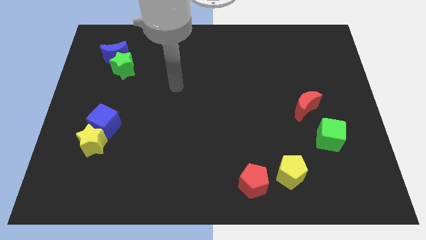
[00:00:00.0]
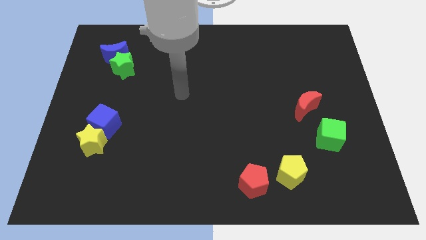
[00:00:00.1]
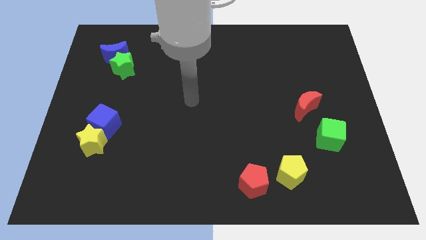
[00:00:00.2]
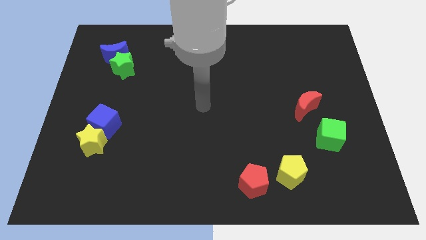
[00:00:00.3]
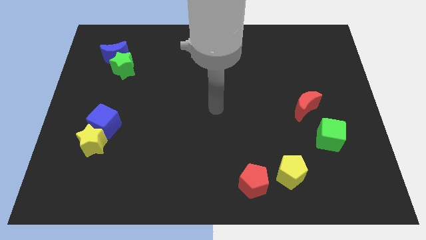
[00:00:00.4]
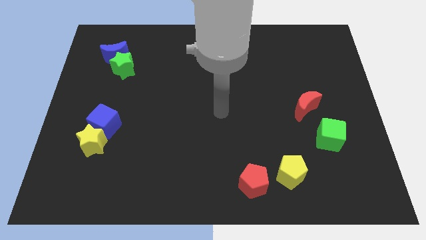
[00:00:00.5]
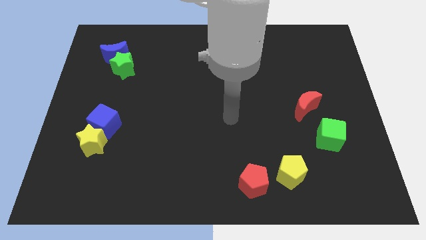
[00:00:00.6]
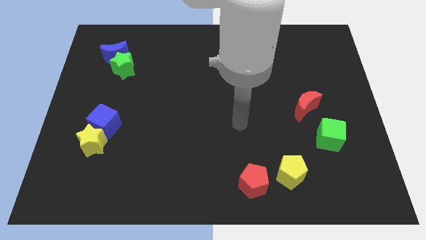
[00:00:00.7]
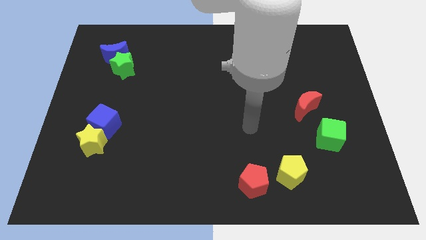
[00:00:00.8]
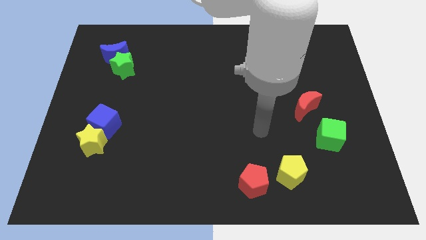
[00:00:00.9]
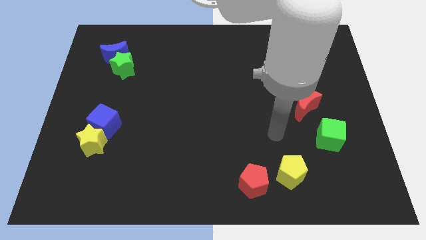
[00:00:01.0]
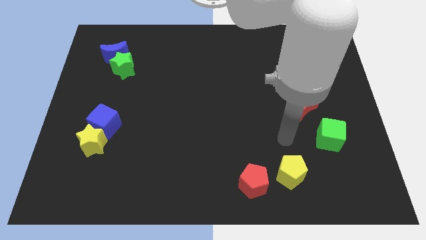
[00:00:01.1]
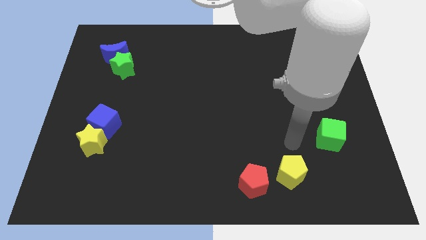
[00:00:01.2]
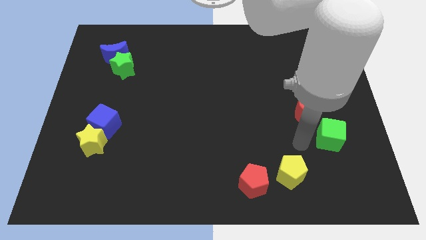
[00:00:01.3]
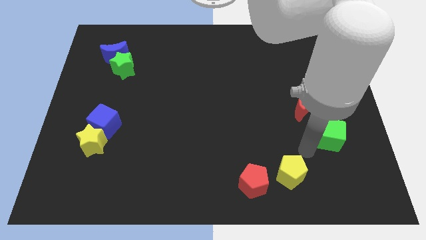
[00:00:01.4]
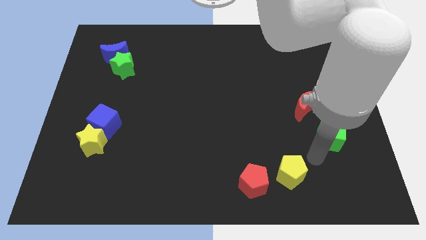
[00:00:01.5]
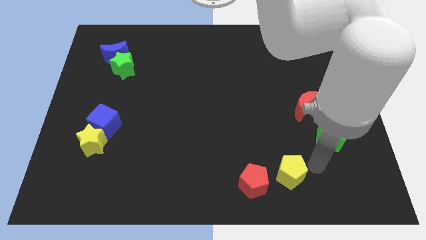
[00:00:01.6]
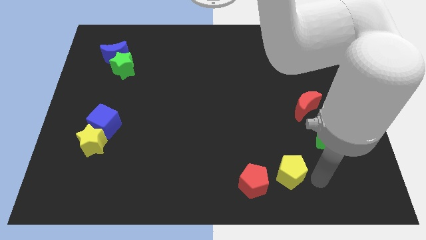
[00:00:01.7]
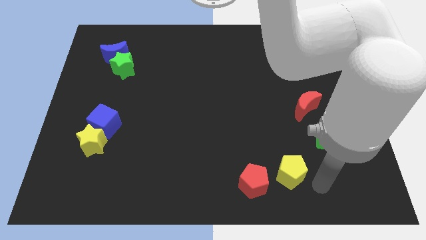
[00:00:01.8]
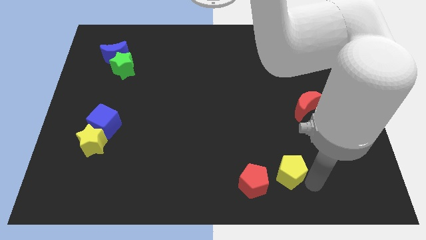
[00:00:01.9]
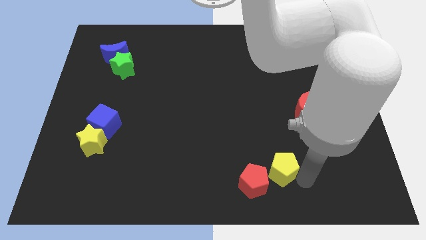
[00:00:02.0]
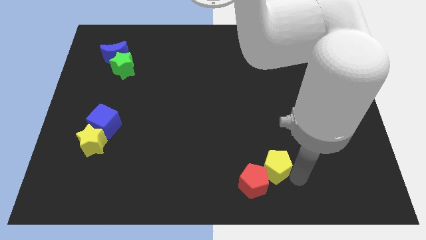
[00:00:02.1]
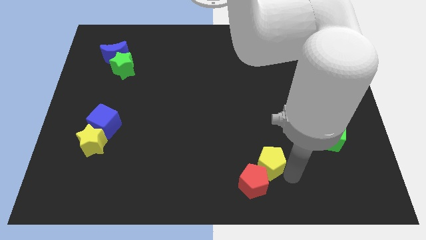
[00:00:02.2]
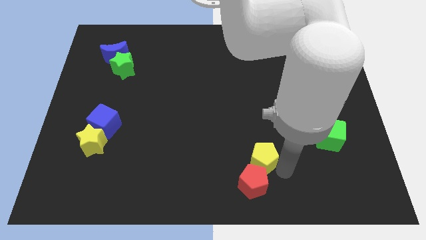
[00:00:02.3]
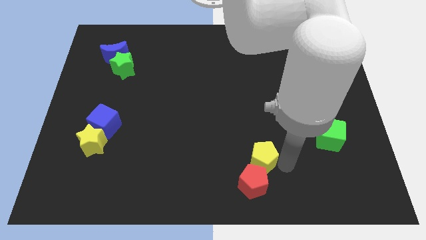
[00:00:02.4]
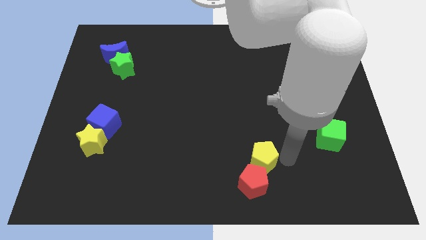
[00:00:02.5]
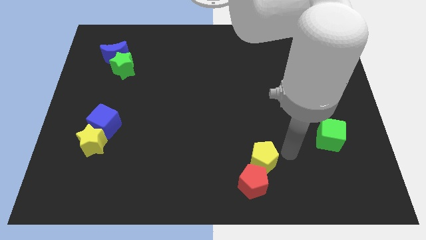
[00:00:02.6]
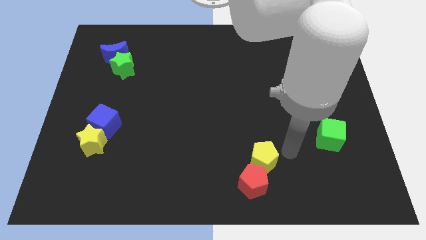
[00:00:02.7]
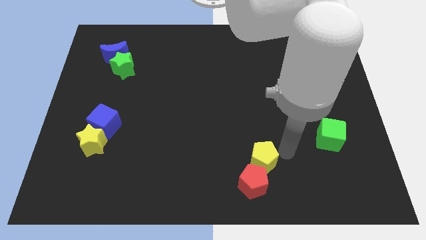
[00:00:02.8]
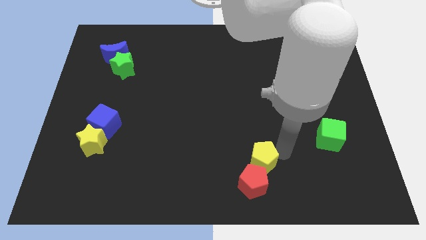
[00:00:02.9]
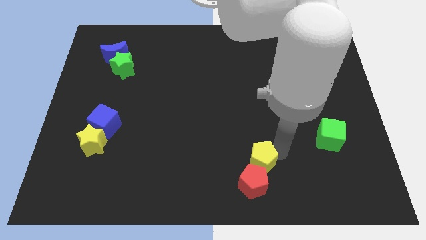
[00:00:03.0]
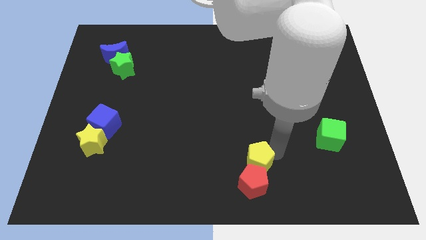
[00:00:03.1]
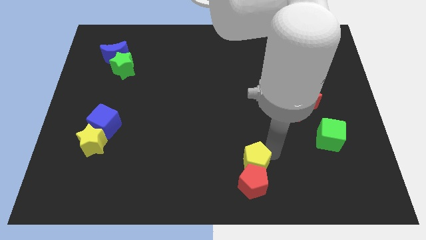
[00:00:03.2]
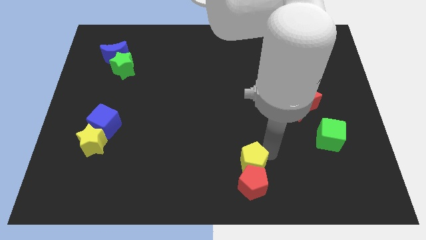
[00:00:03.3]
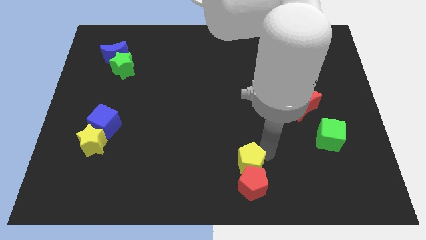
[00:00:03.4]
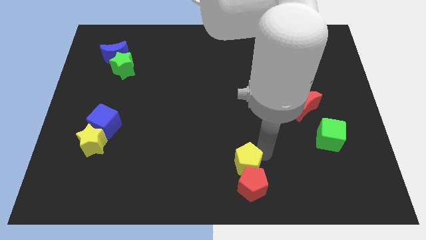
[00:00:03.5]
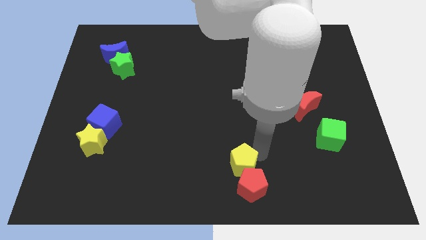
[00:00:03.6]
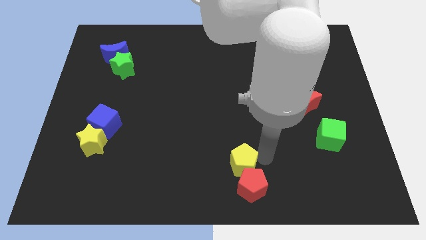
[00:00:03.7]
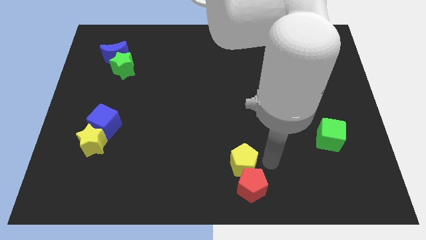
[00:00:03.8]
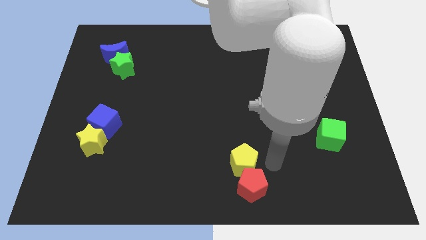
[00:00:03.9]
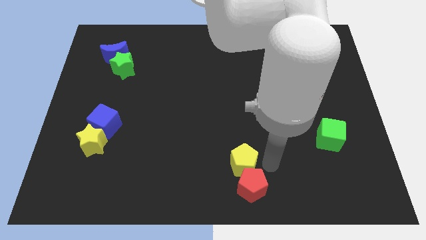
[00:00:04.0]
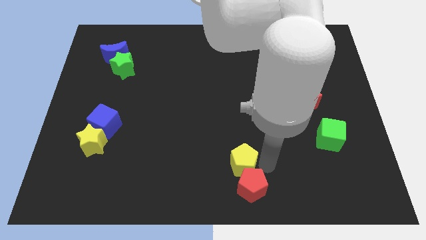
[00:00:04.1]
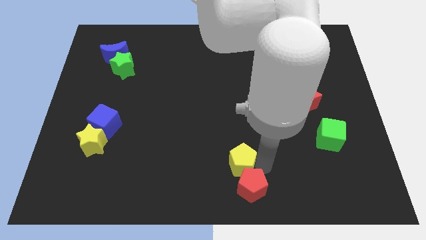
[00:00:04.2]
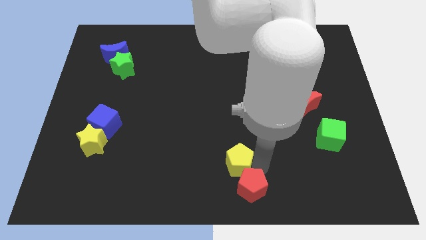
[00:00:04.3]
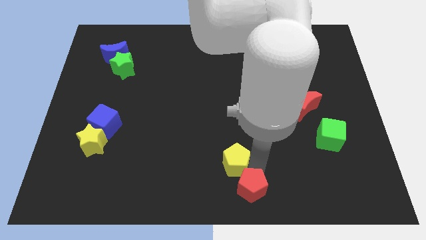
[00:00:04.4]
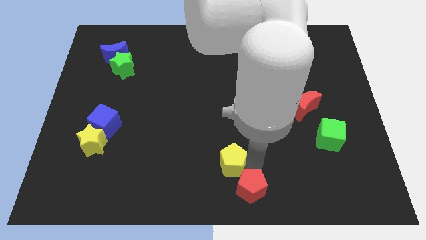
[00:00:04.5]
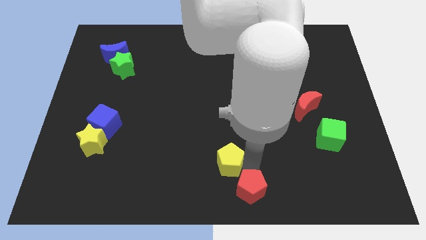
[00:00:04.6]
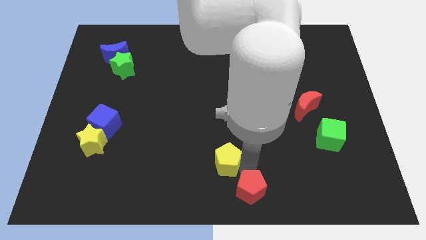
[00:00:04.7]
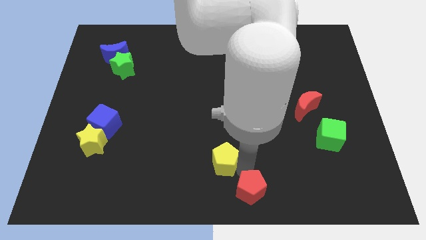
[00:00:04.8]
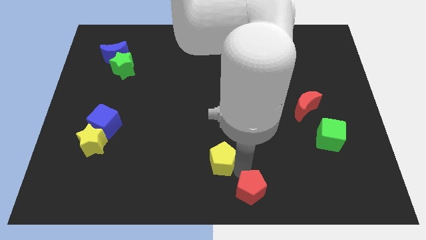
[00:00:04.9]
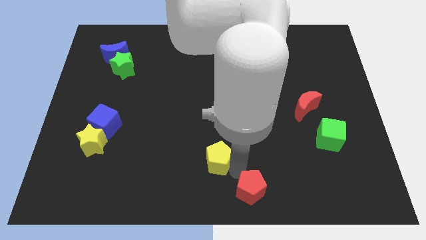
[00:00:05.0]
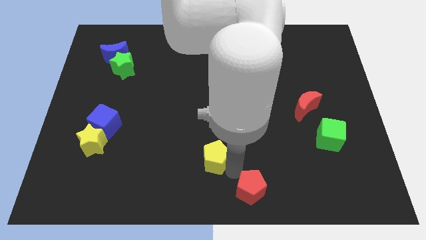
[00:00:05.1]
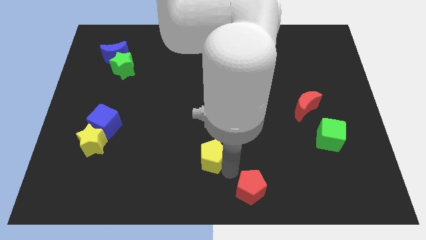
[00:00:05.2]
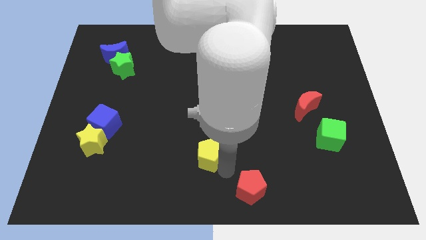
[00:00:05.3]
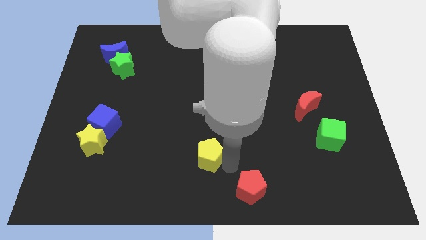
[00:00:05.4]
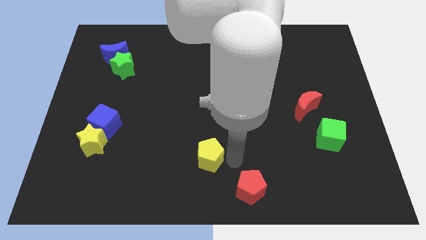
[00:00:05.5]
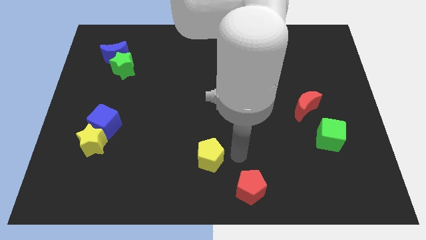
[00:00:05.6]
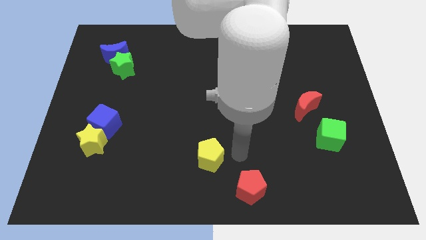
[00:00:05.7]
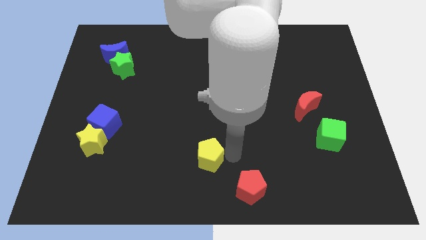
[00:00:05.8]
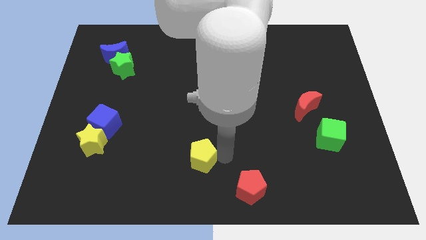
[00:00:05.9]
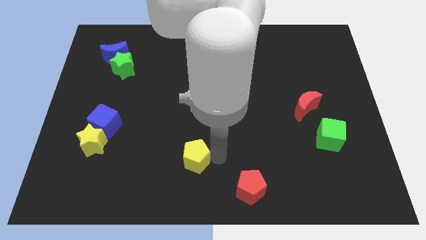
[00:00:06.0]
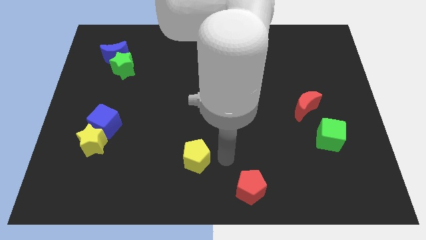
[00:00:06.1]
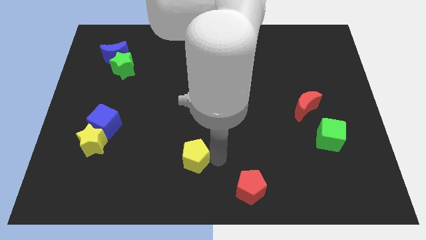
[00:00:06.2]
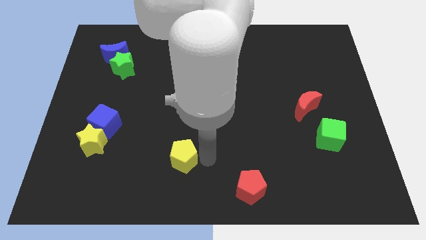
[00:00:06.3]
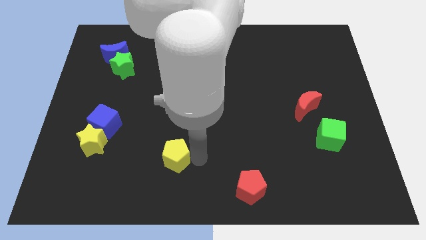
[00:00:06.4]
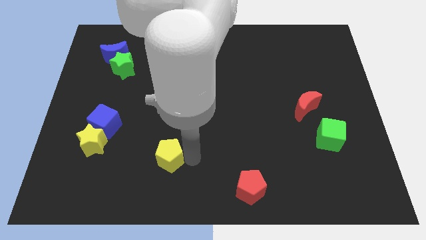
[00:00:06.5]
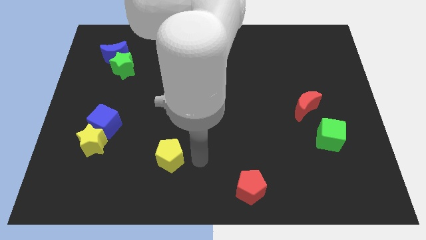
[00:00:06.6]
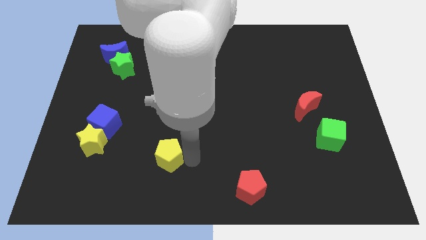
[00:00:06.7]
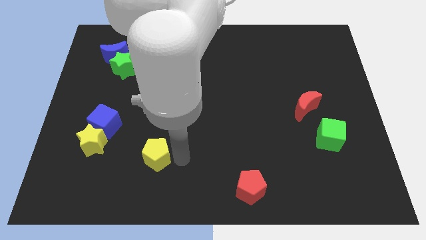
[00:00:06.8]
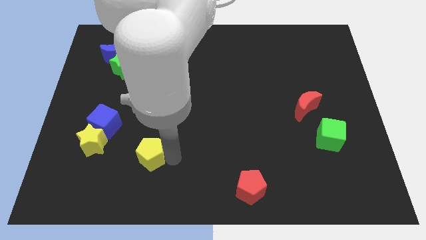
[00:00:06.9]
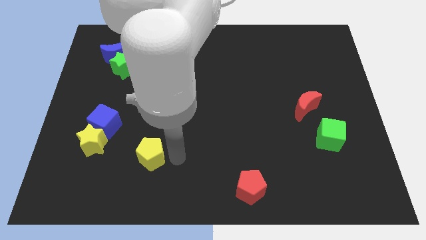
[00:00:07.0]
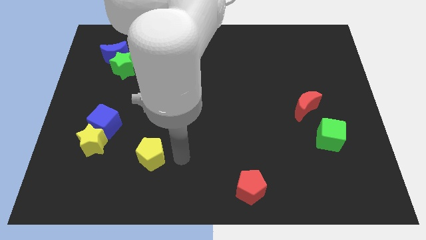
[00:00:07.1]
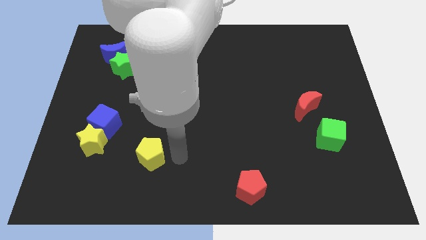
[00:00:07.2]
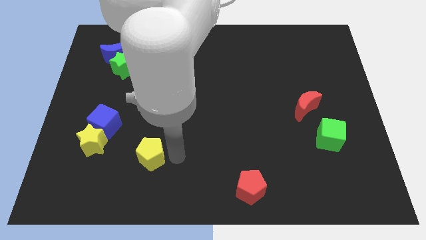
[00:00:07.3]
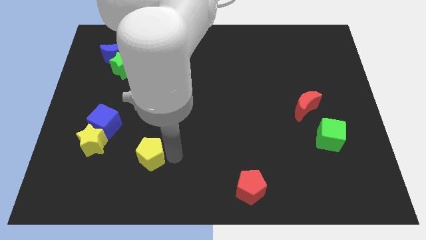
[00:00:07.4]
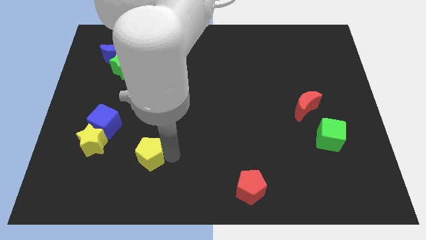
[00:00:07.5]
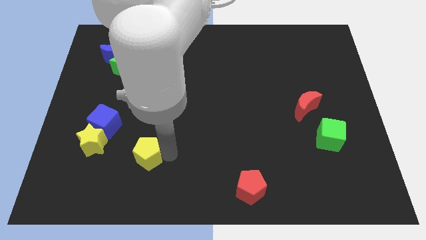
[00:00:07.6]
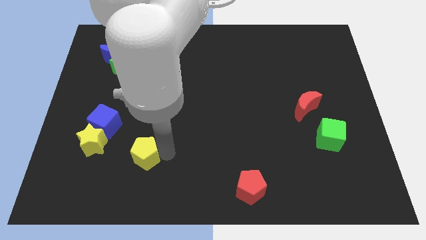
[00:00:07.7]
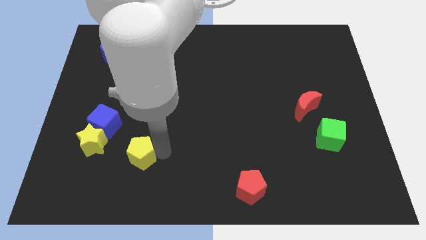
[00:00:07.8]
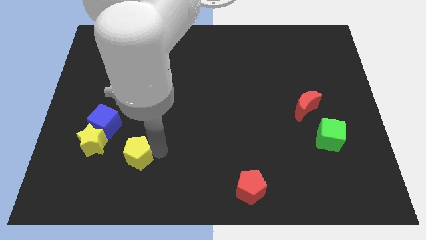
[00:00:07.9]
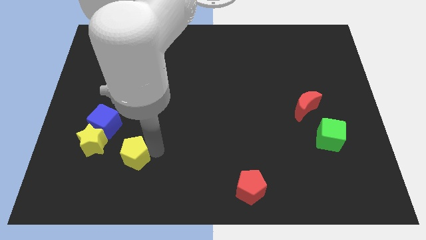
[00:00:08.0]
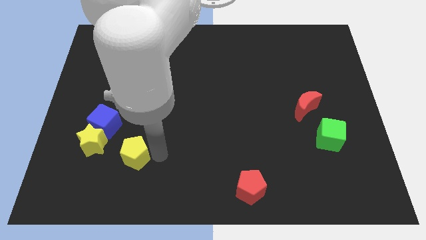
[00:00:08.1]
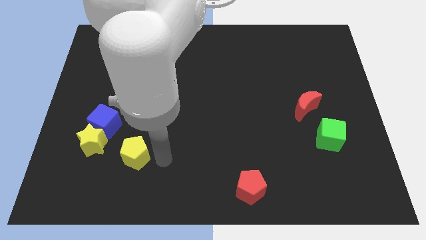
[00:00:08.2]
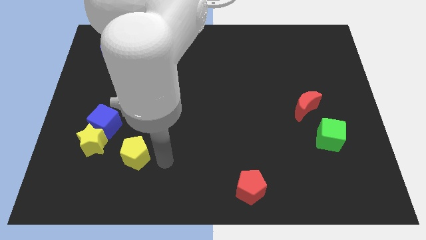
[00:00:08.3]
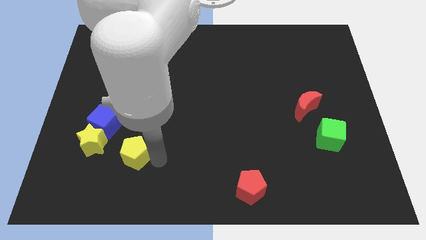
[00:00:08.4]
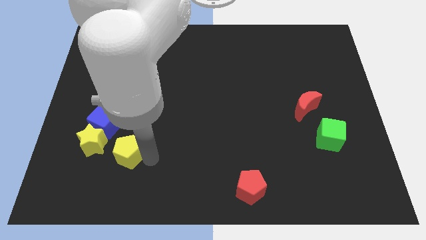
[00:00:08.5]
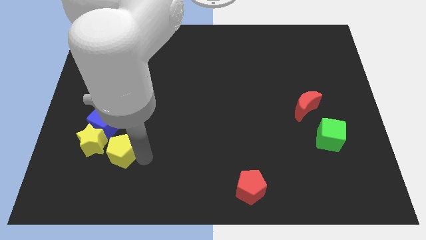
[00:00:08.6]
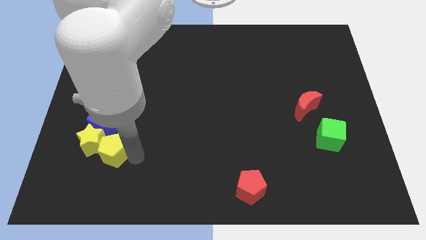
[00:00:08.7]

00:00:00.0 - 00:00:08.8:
push the yellow pentagon close to the yellow star
